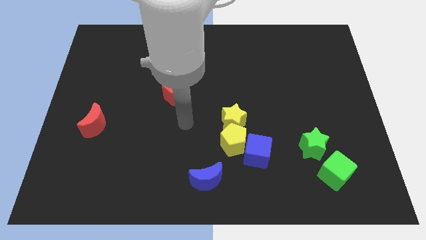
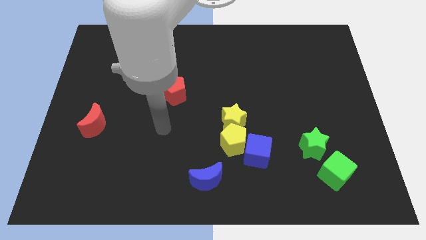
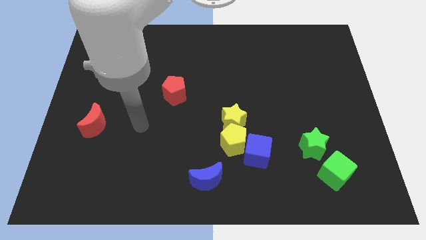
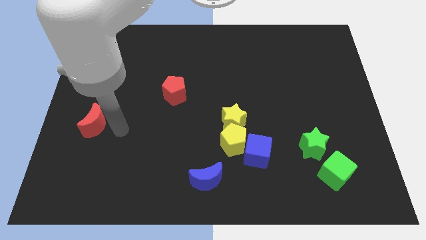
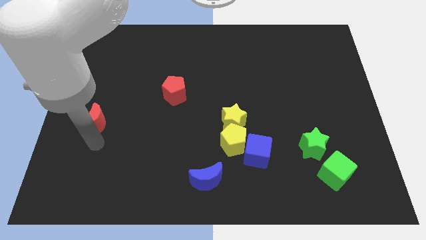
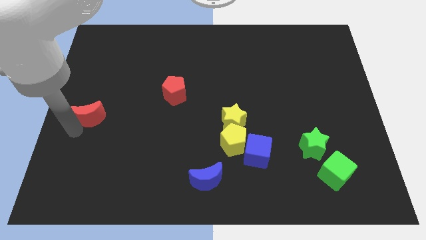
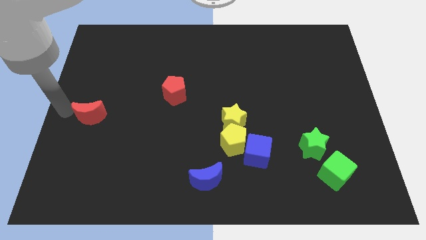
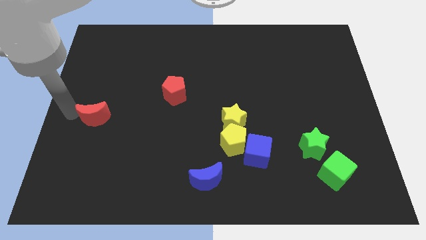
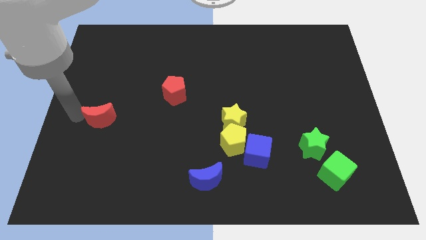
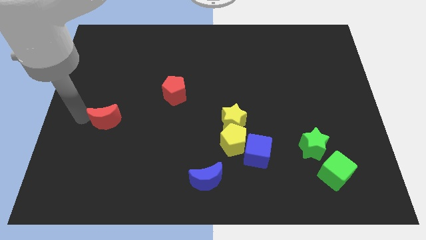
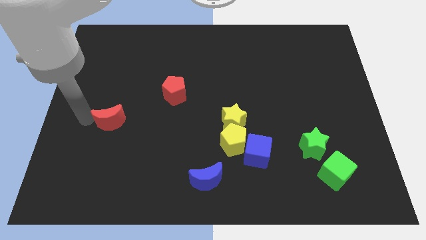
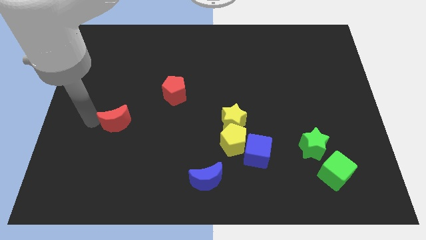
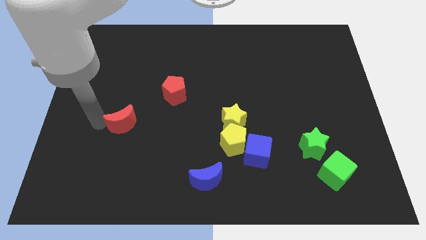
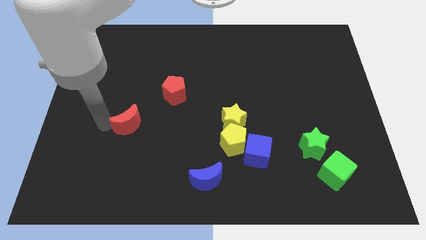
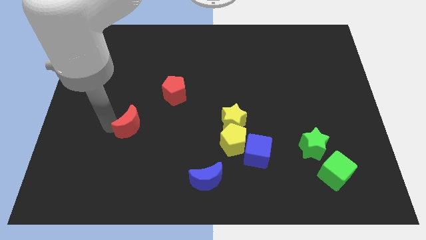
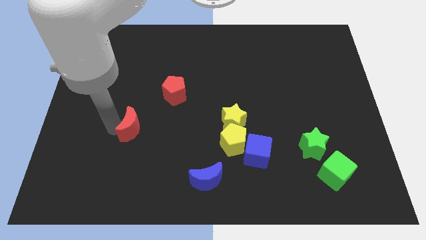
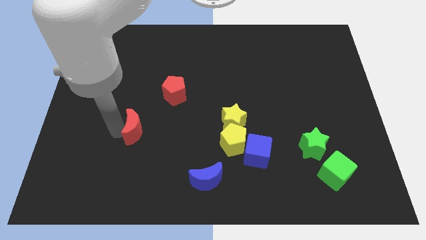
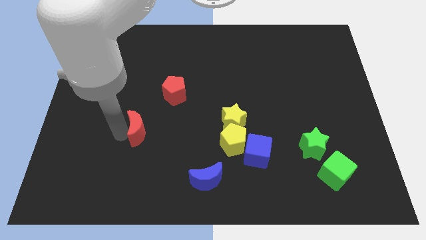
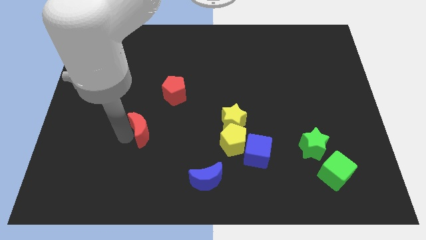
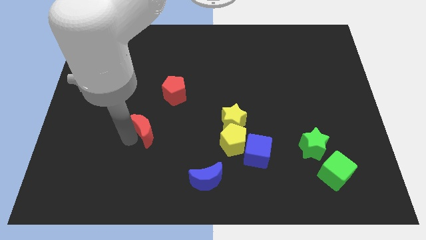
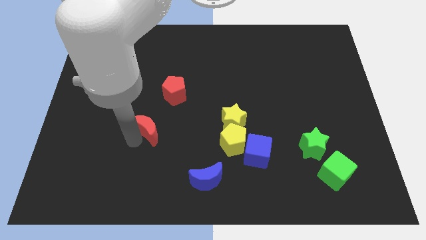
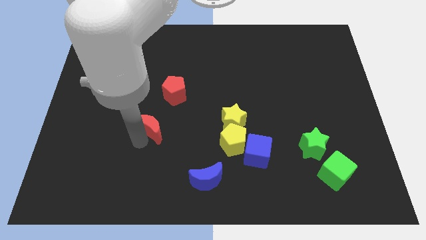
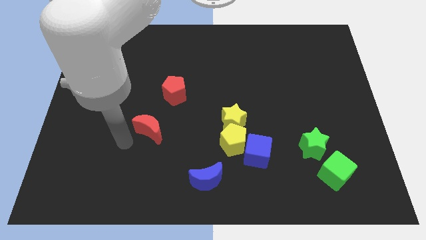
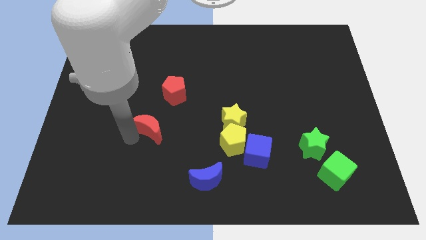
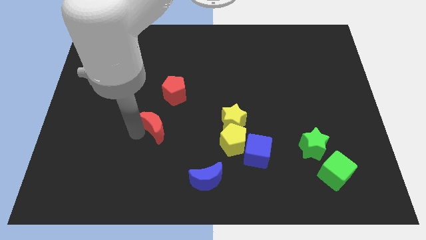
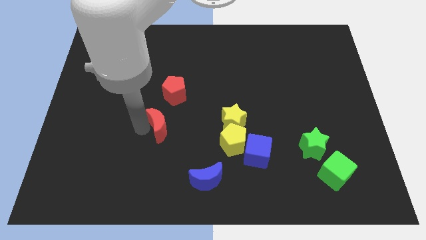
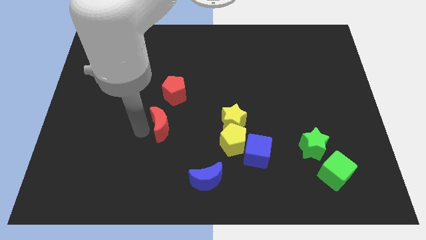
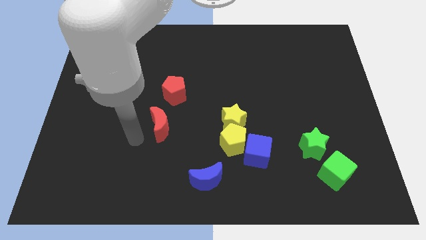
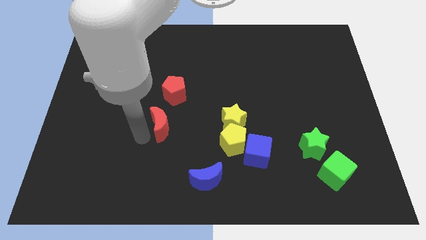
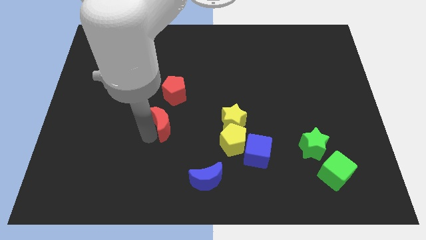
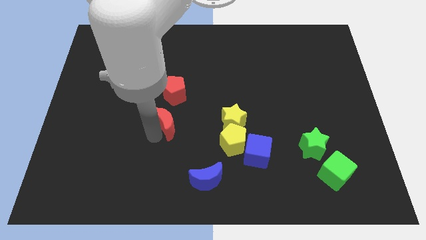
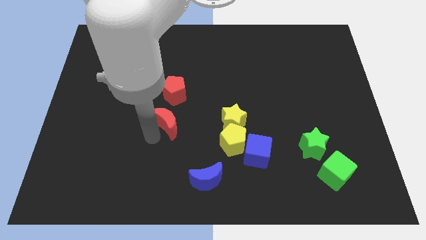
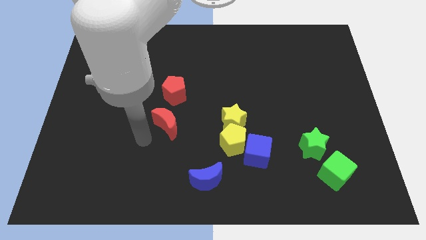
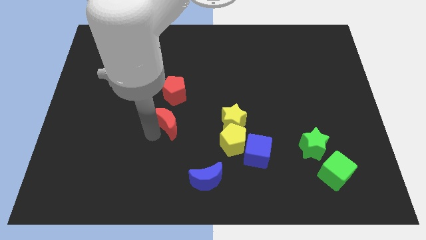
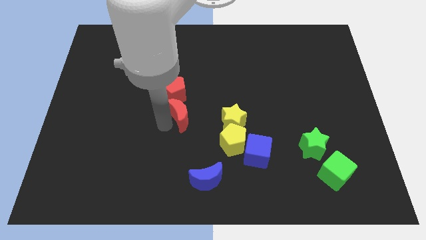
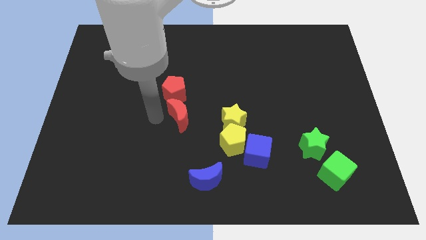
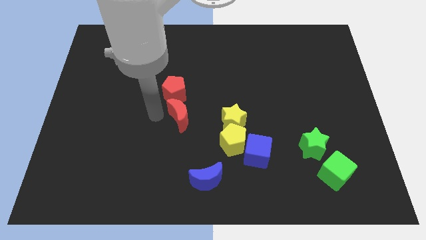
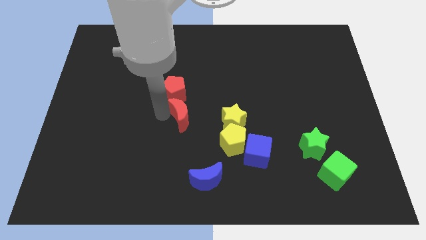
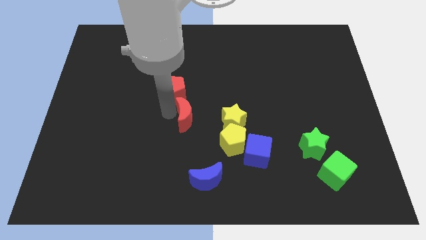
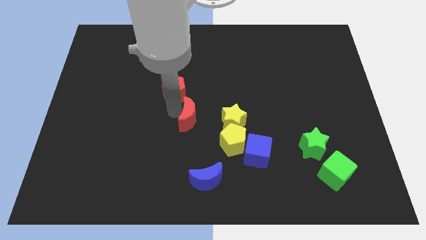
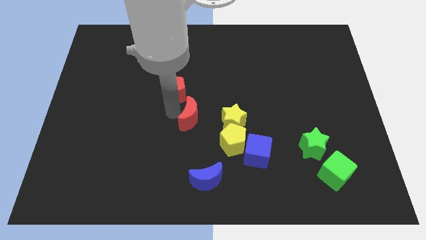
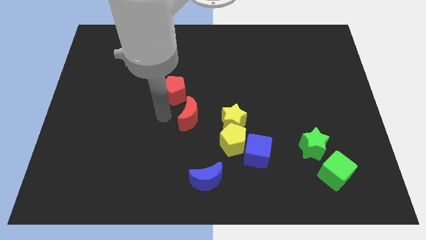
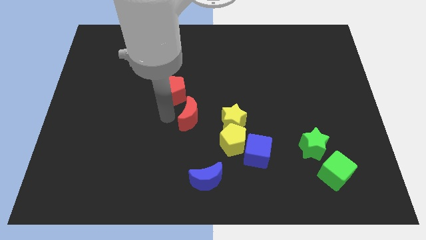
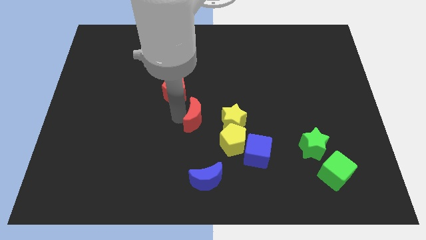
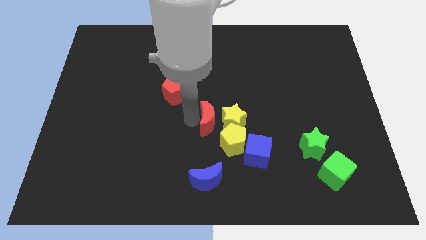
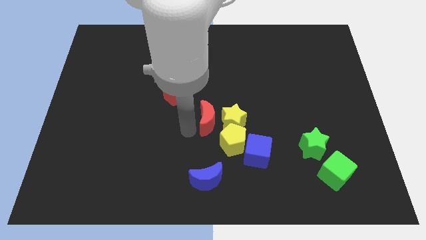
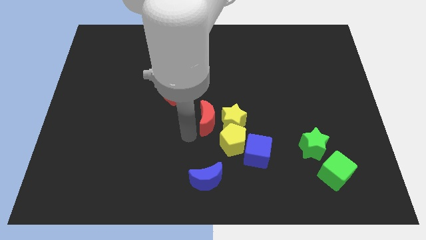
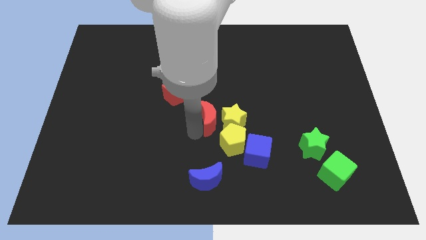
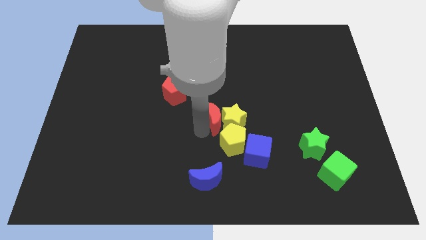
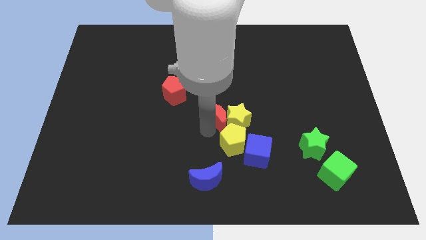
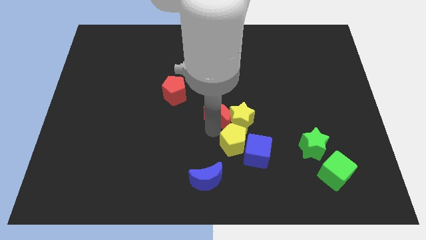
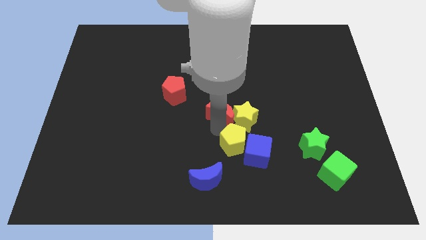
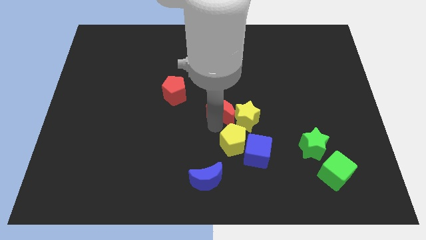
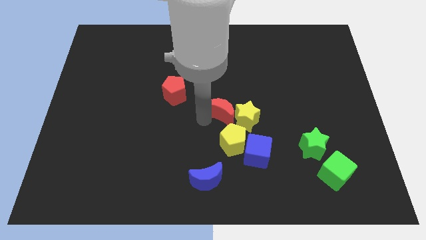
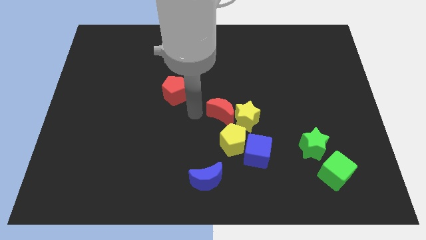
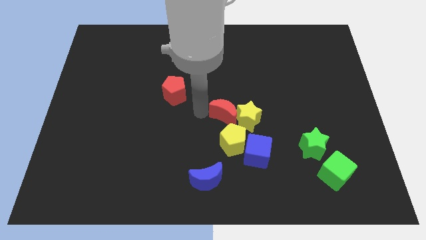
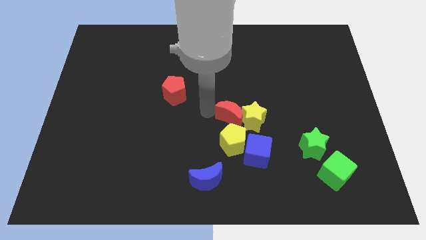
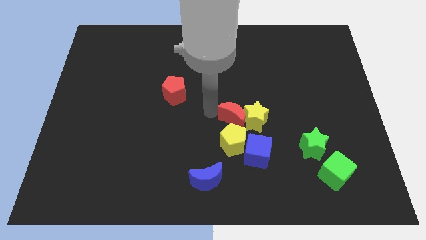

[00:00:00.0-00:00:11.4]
move the red moon above the blue cube

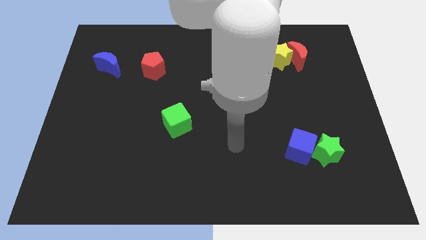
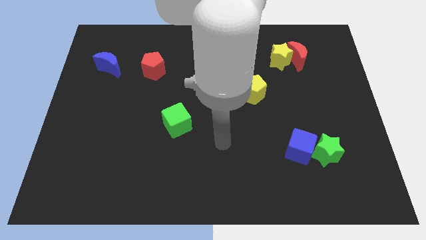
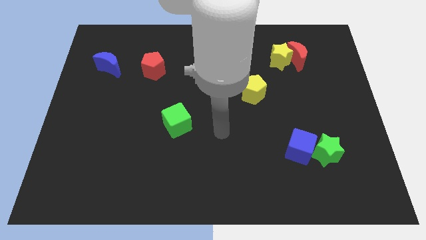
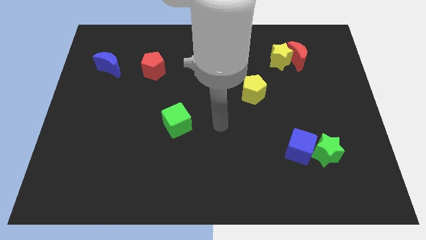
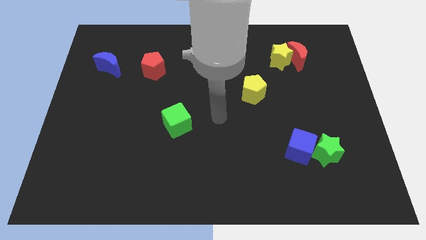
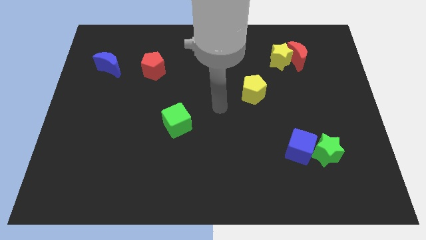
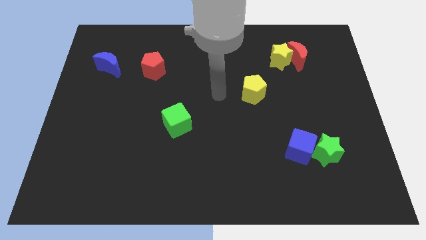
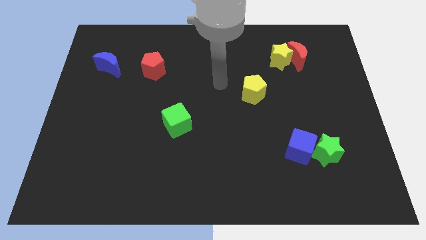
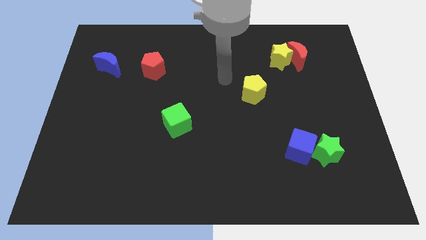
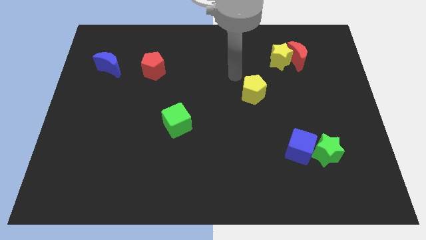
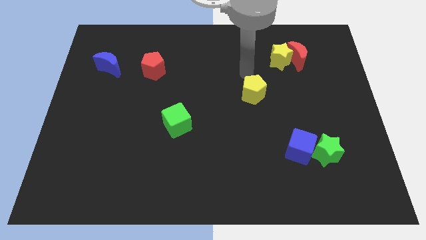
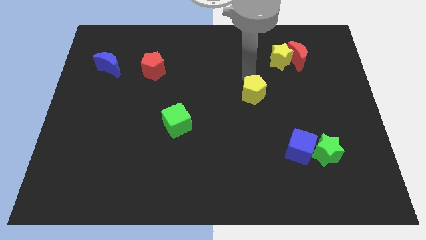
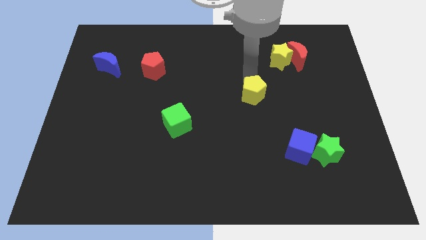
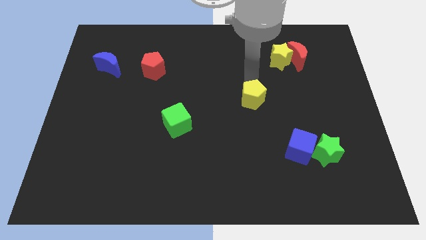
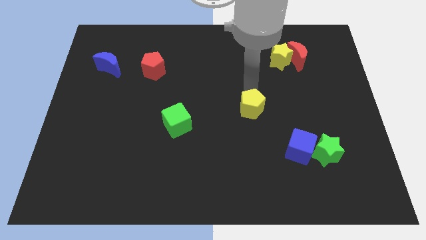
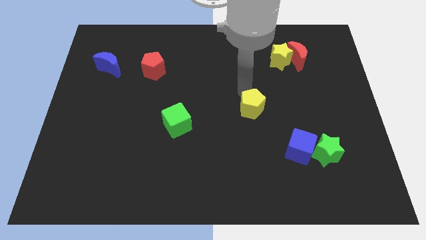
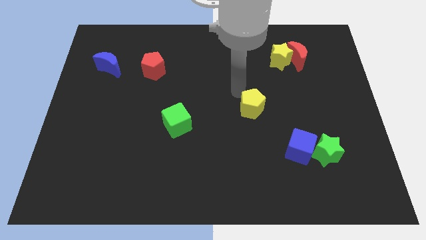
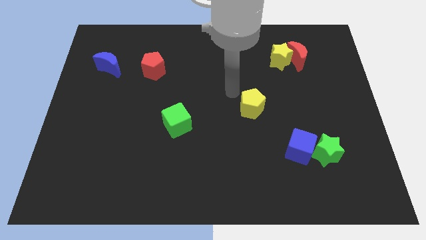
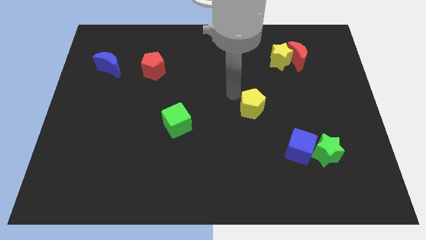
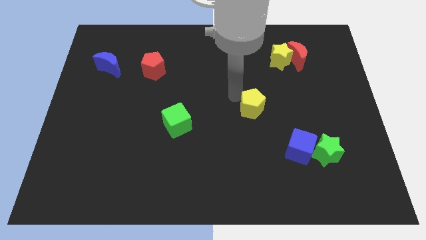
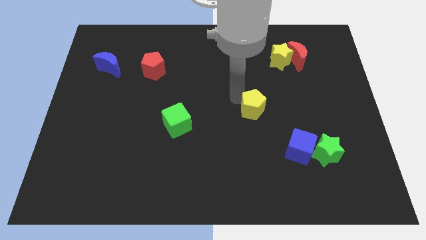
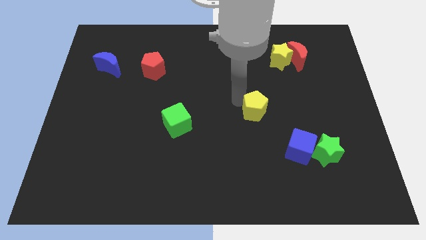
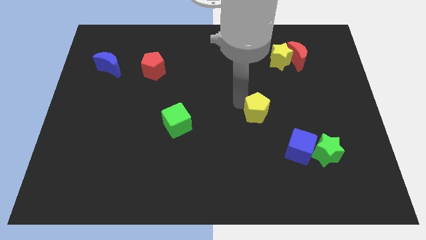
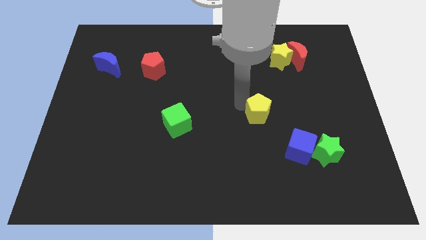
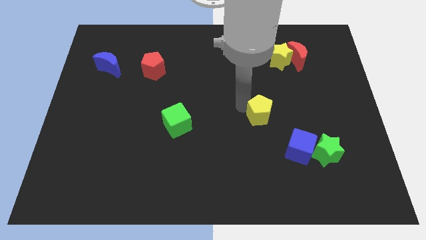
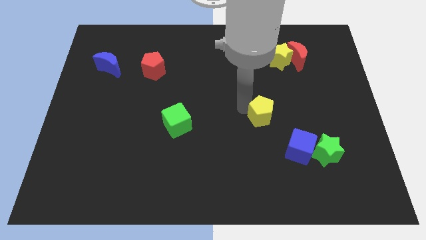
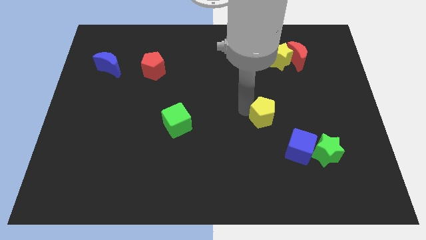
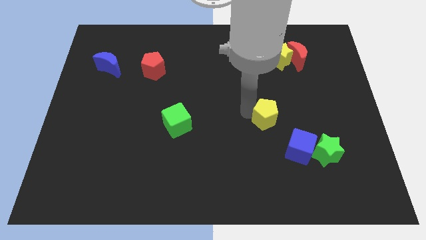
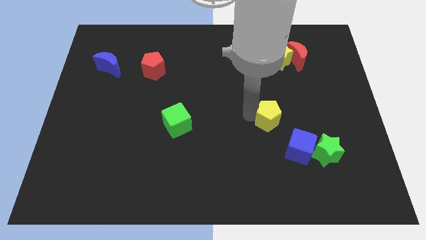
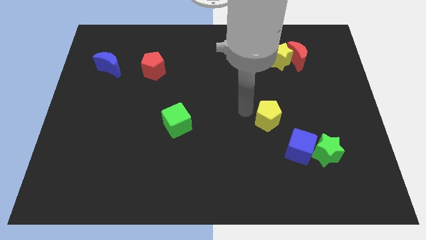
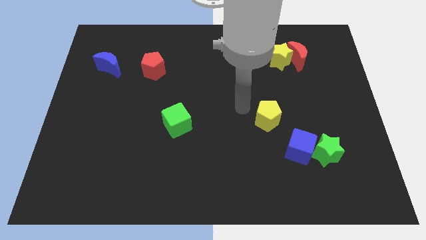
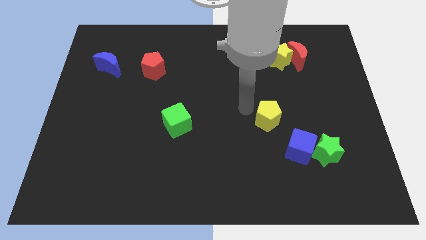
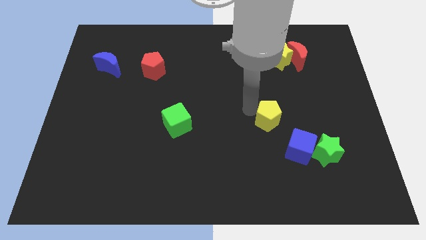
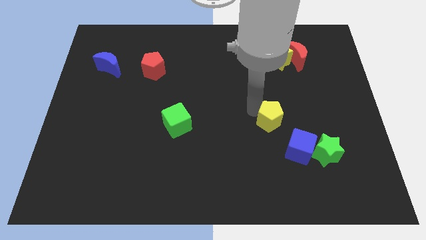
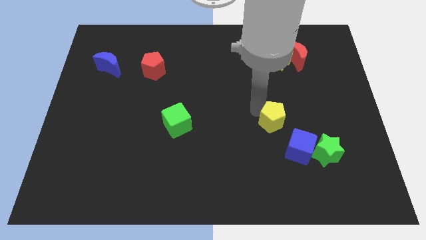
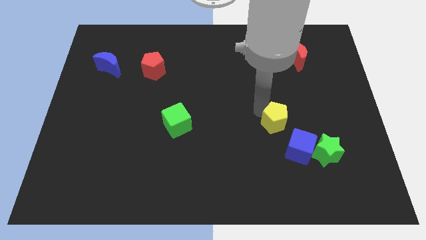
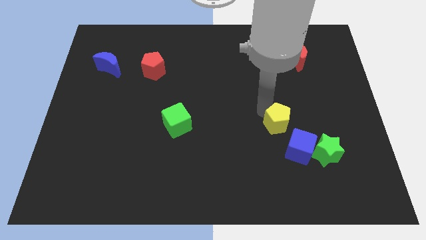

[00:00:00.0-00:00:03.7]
slide the yellow pentagon to the top left of the green star
